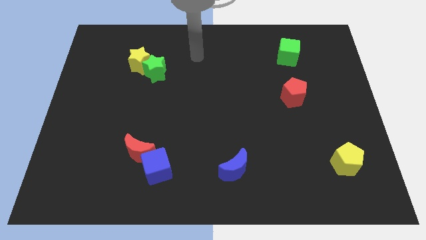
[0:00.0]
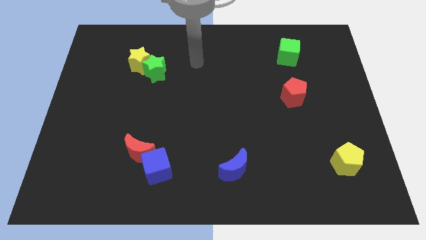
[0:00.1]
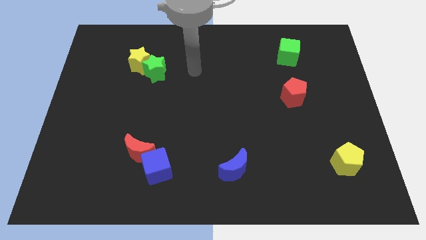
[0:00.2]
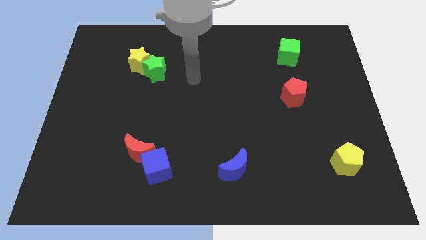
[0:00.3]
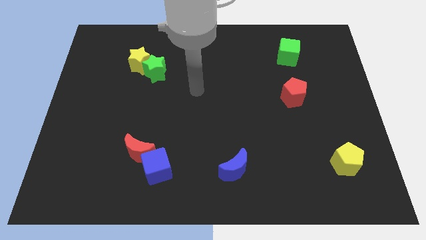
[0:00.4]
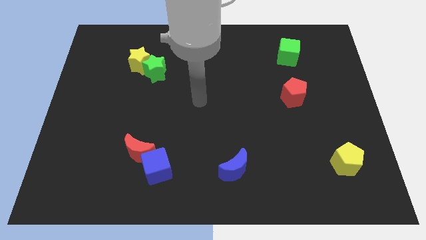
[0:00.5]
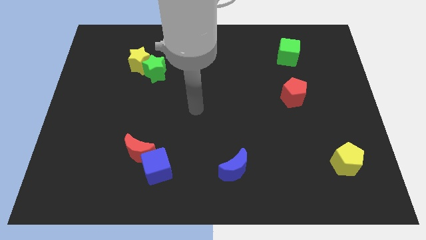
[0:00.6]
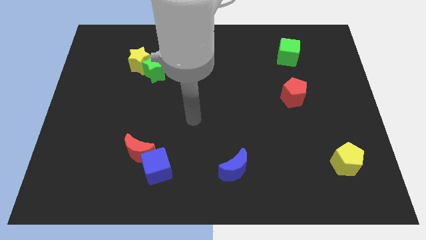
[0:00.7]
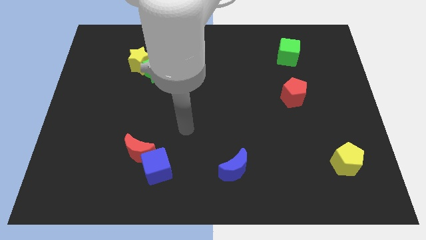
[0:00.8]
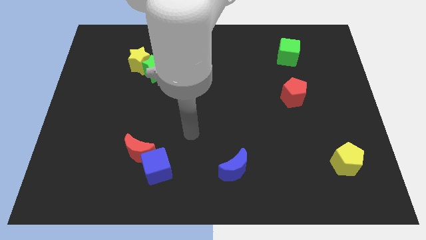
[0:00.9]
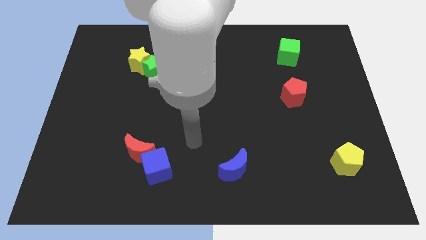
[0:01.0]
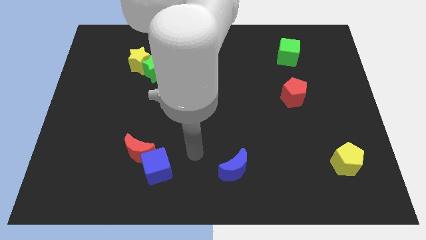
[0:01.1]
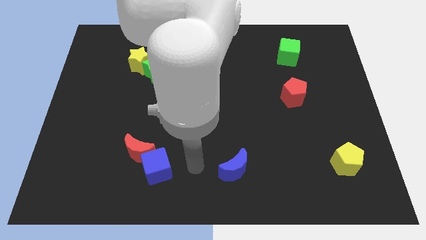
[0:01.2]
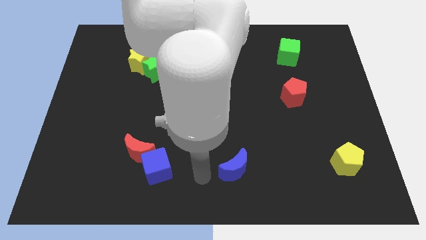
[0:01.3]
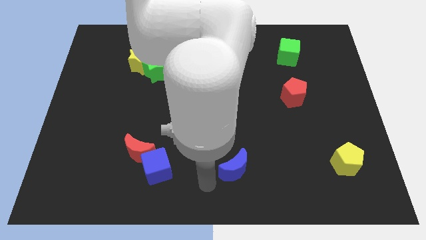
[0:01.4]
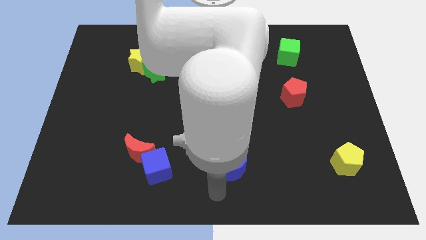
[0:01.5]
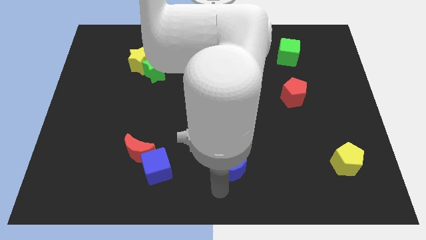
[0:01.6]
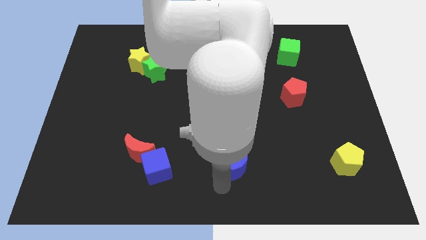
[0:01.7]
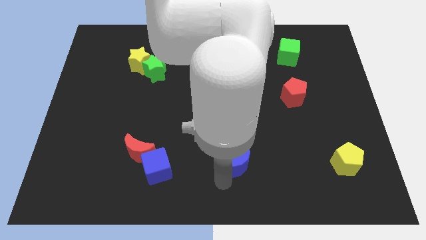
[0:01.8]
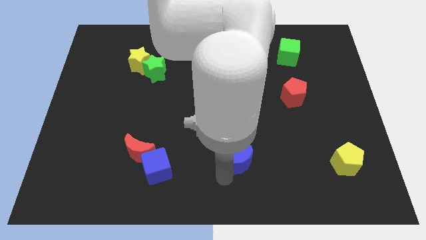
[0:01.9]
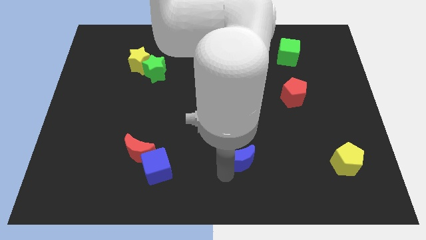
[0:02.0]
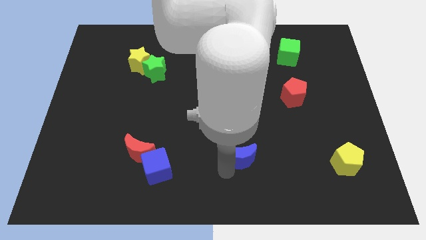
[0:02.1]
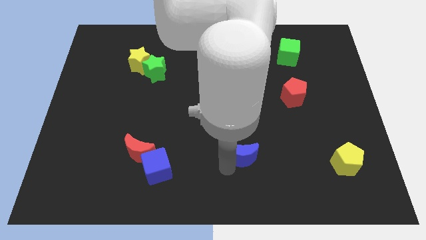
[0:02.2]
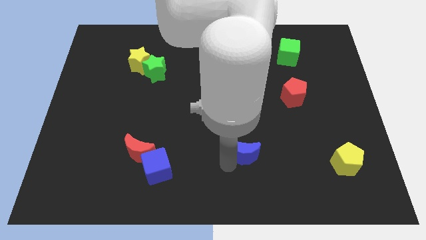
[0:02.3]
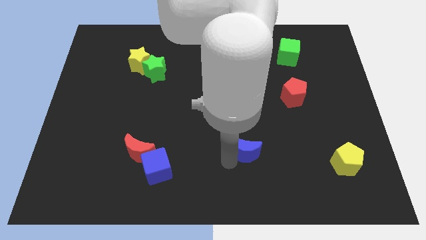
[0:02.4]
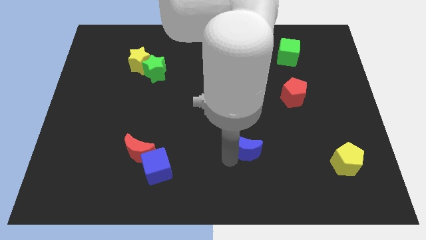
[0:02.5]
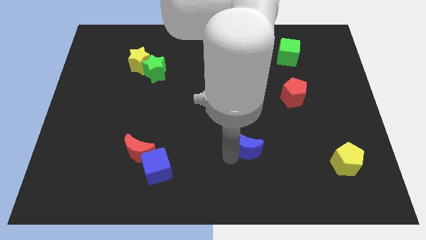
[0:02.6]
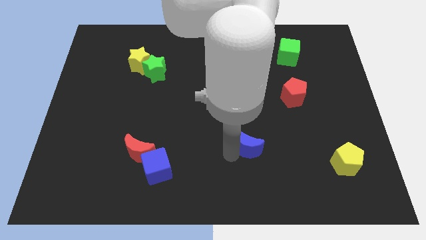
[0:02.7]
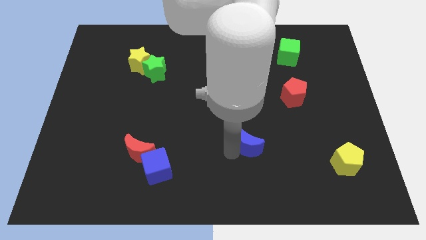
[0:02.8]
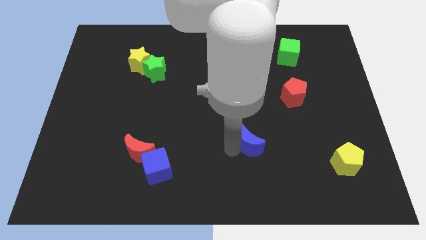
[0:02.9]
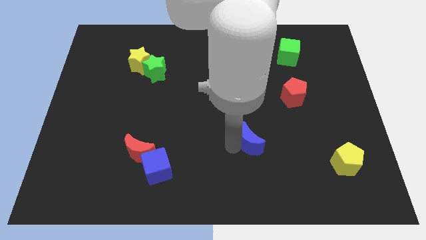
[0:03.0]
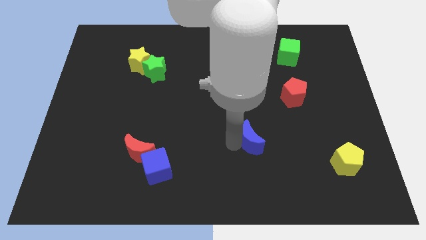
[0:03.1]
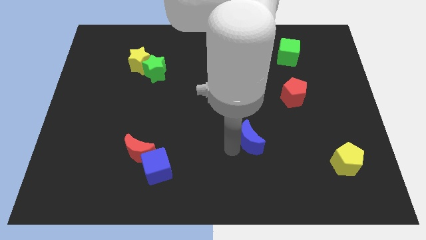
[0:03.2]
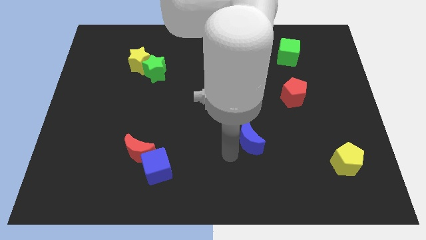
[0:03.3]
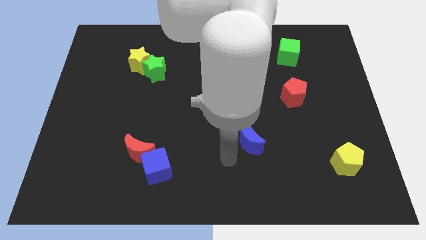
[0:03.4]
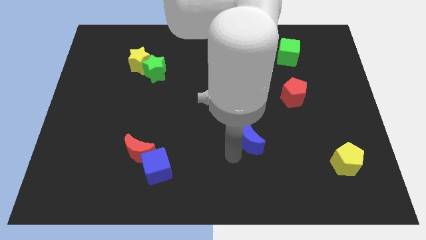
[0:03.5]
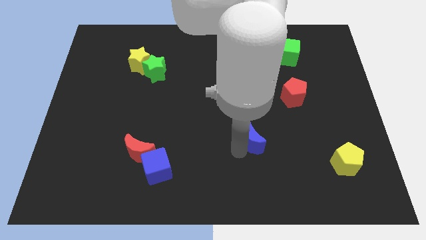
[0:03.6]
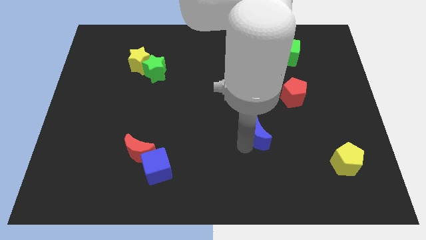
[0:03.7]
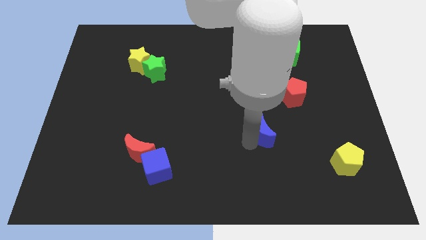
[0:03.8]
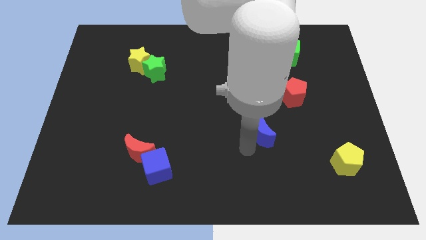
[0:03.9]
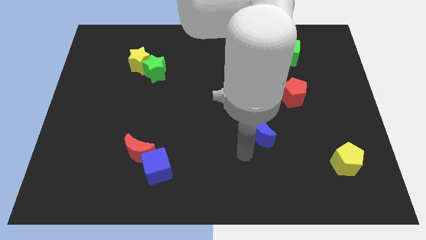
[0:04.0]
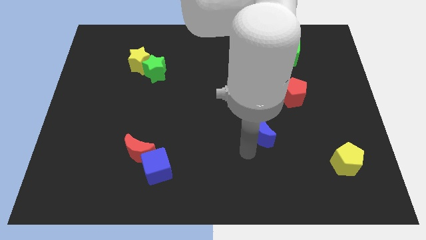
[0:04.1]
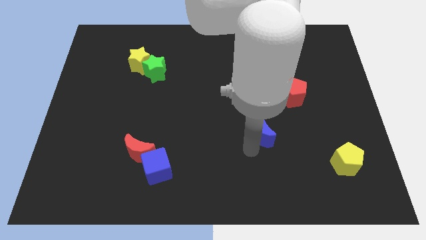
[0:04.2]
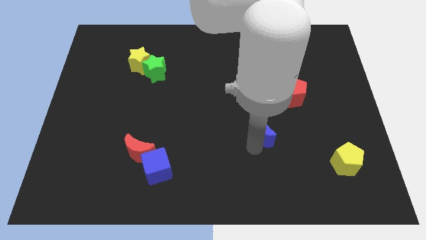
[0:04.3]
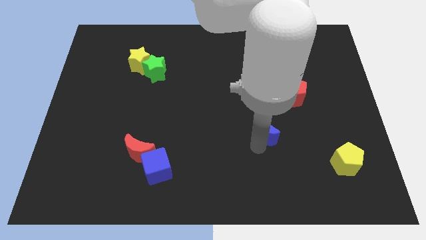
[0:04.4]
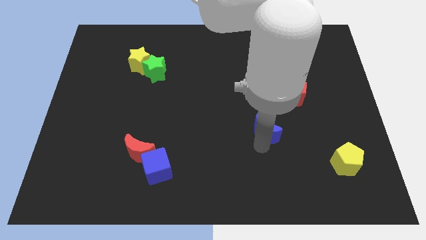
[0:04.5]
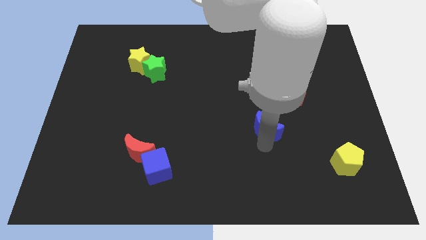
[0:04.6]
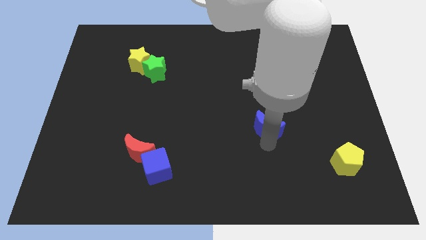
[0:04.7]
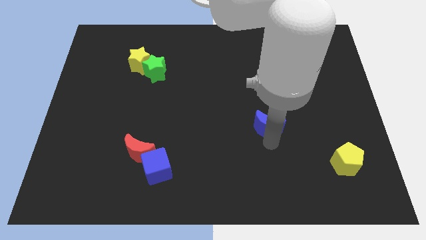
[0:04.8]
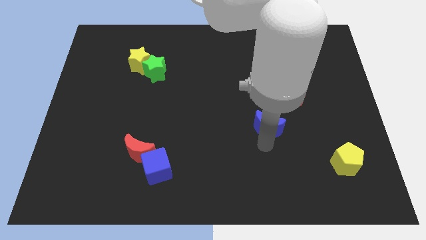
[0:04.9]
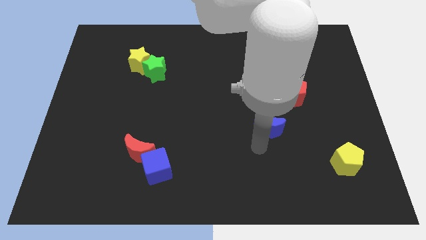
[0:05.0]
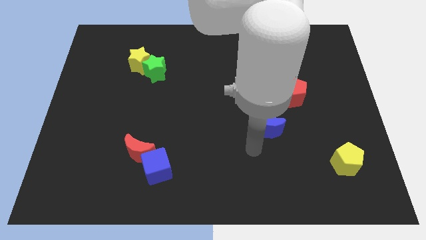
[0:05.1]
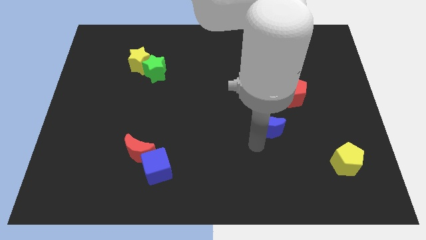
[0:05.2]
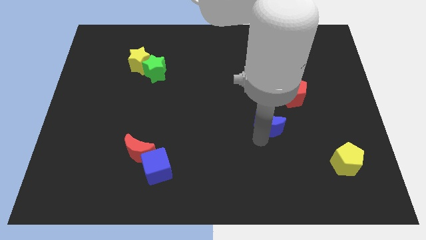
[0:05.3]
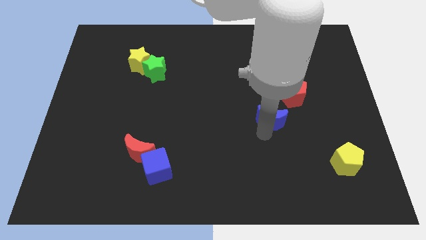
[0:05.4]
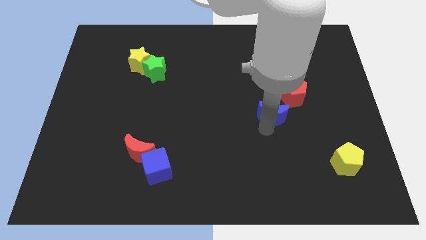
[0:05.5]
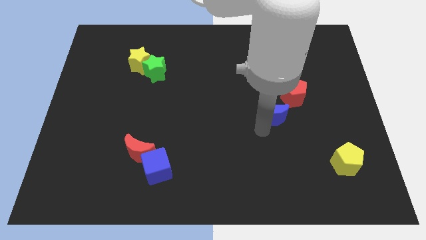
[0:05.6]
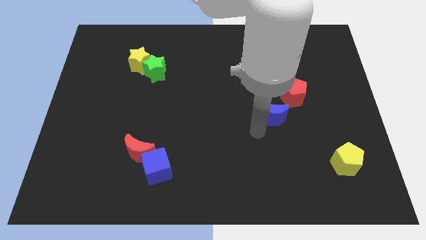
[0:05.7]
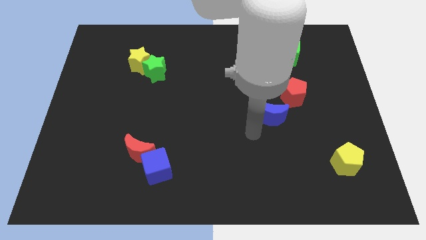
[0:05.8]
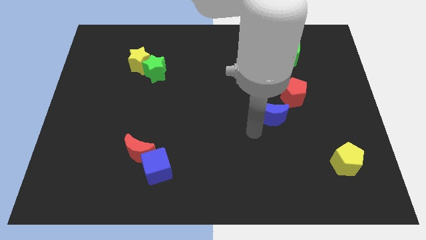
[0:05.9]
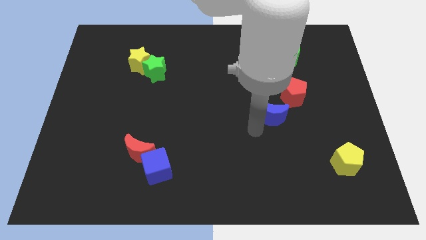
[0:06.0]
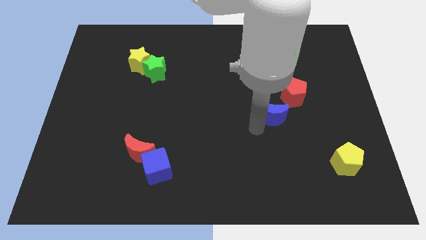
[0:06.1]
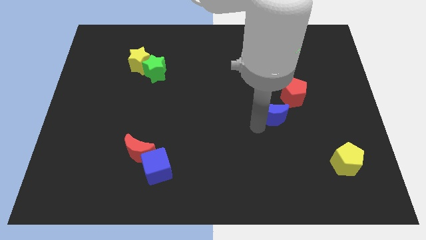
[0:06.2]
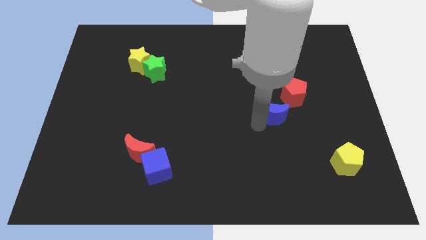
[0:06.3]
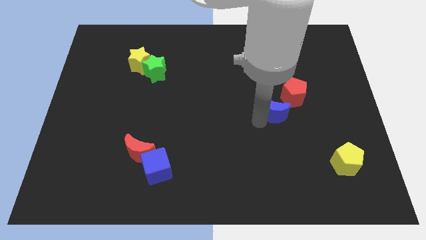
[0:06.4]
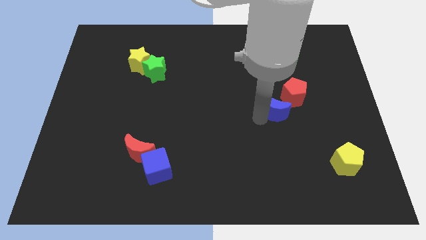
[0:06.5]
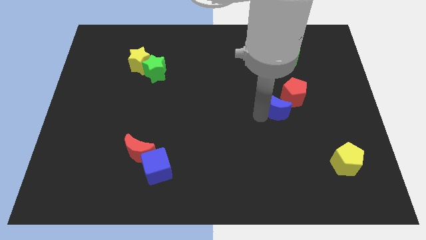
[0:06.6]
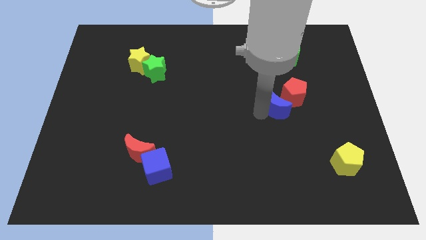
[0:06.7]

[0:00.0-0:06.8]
move the blue moon towards the red pentagon
